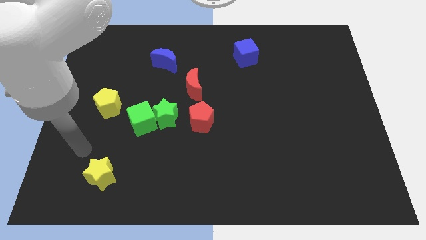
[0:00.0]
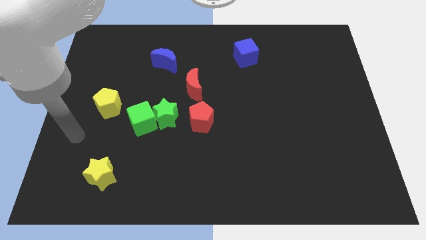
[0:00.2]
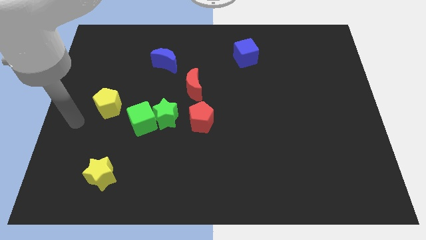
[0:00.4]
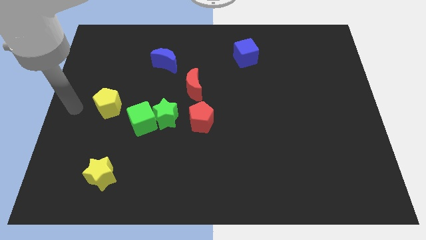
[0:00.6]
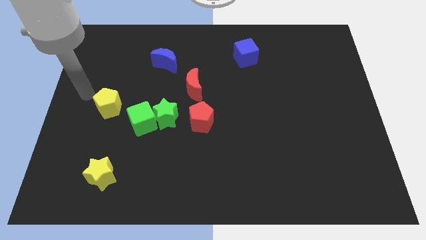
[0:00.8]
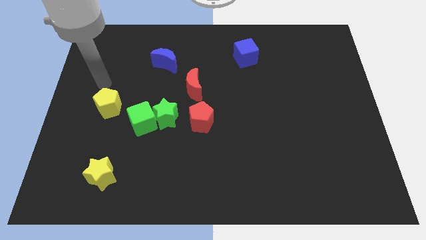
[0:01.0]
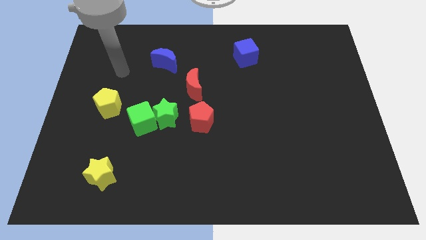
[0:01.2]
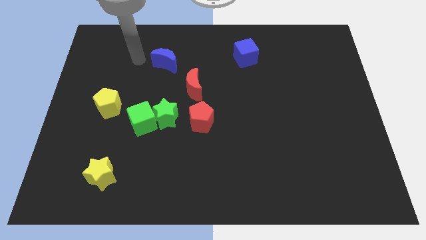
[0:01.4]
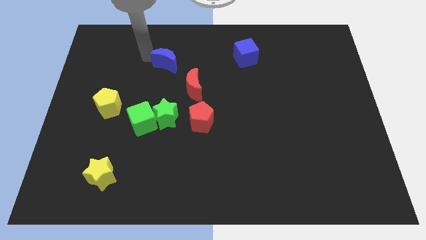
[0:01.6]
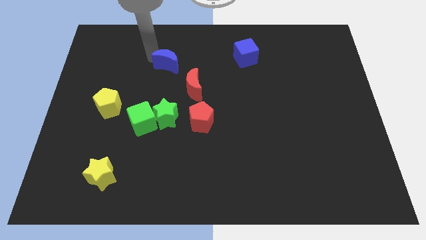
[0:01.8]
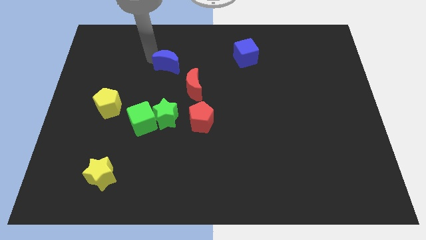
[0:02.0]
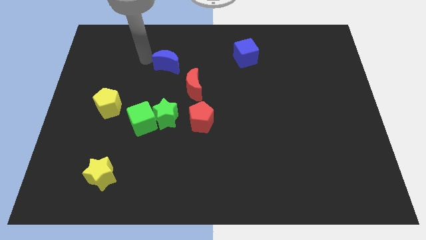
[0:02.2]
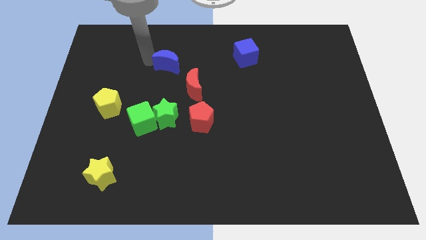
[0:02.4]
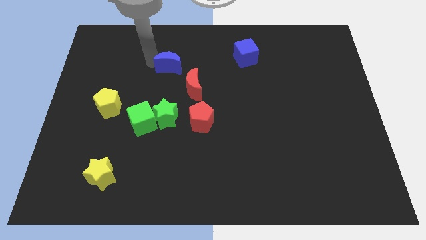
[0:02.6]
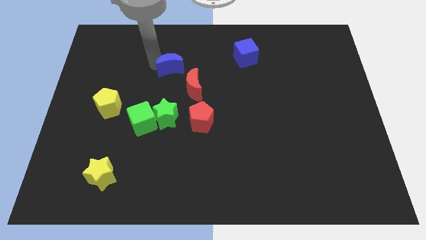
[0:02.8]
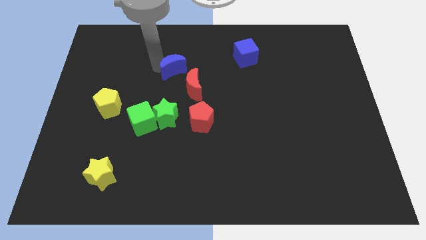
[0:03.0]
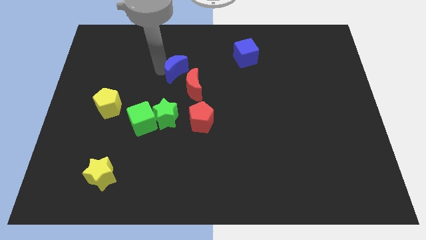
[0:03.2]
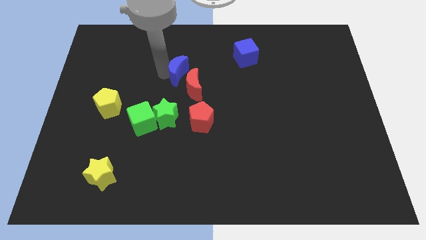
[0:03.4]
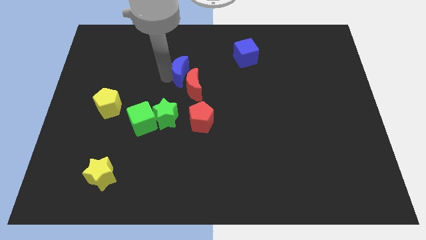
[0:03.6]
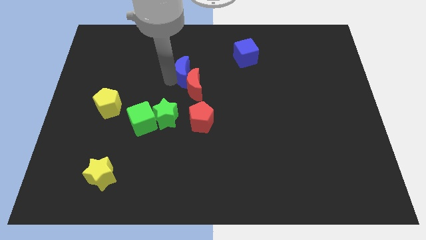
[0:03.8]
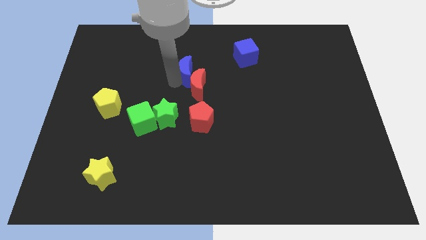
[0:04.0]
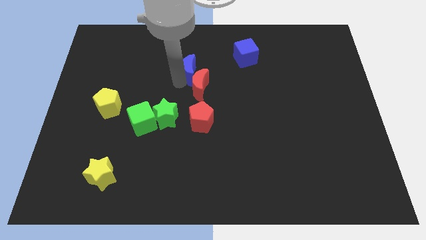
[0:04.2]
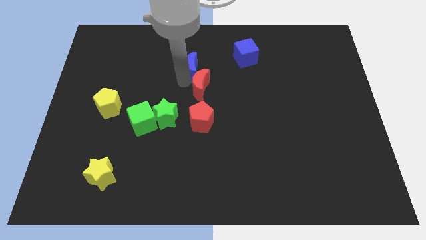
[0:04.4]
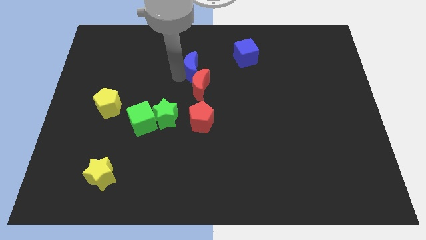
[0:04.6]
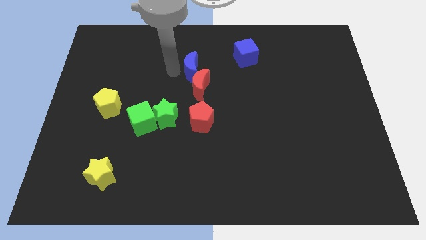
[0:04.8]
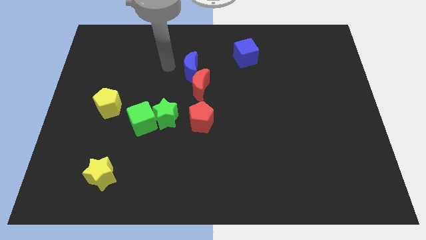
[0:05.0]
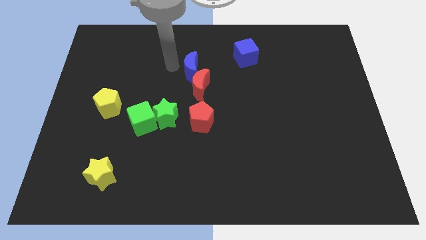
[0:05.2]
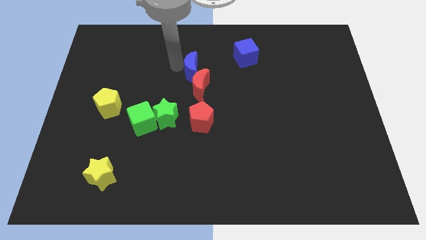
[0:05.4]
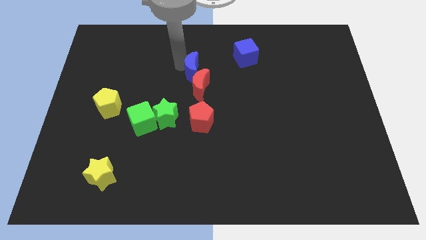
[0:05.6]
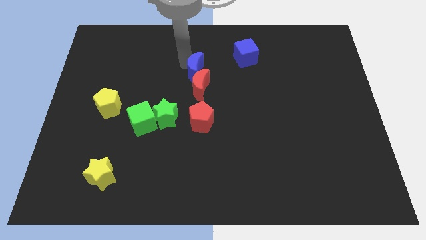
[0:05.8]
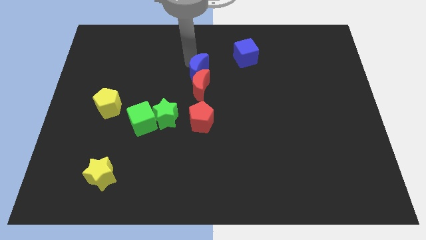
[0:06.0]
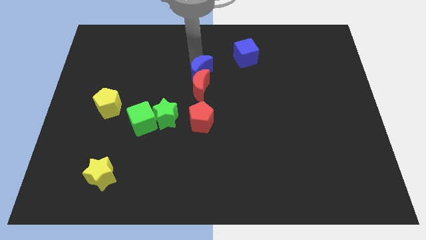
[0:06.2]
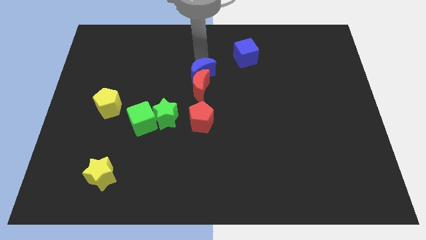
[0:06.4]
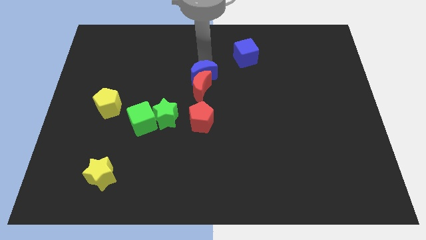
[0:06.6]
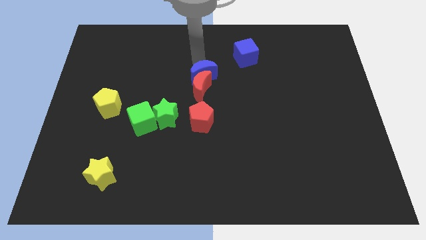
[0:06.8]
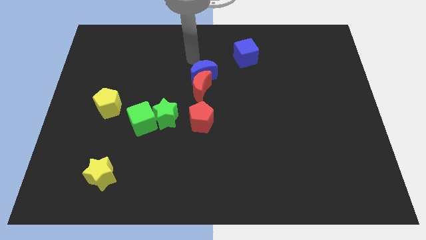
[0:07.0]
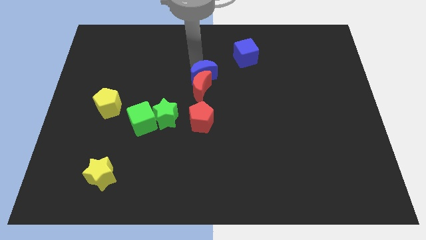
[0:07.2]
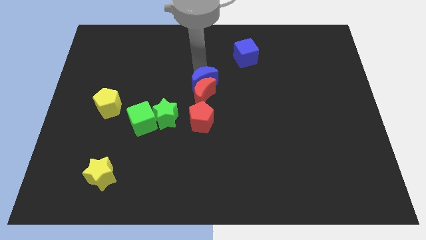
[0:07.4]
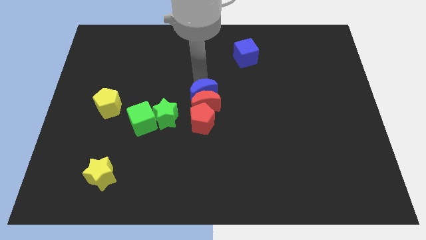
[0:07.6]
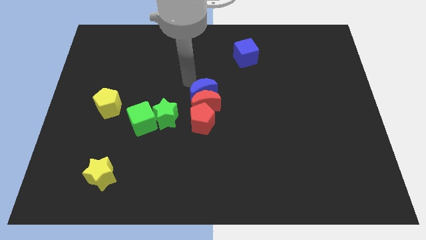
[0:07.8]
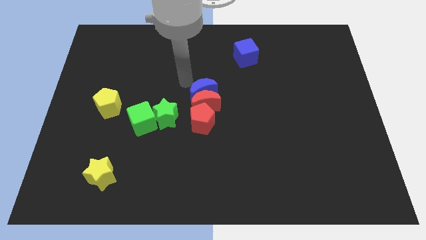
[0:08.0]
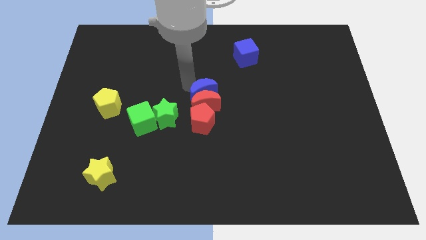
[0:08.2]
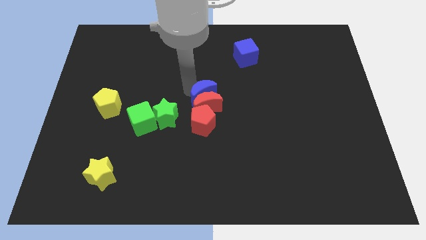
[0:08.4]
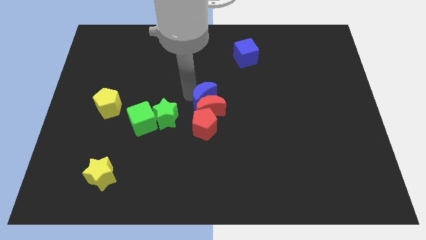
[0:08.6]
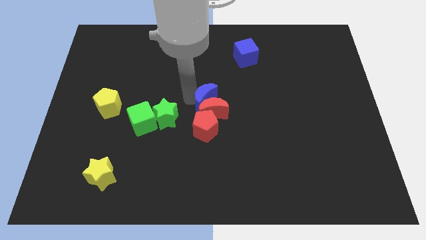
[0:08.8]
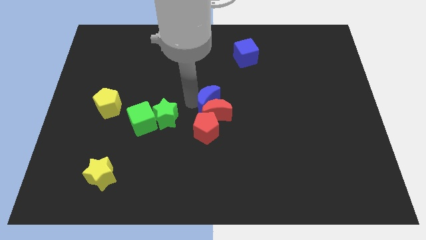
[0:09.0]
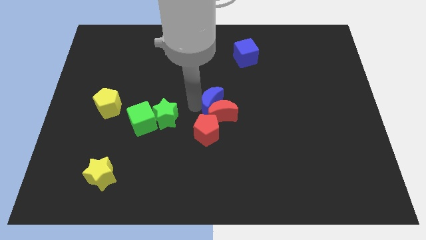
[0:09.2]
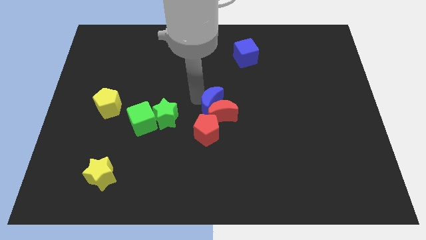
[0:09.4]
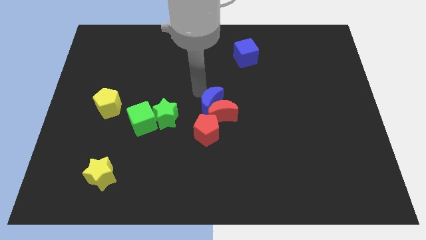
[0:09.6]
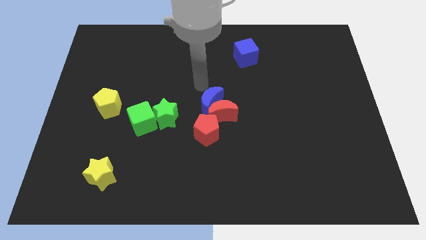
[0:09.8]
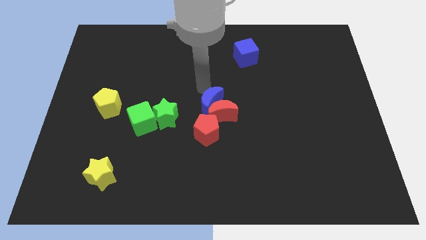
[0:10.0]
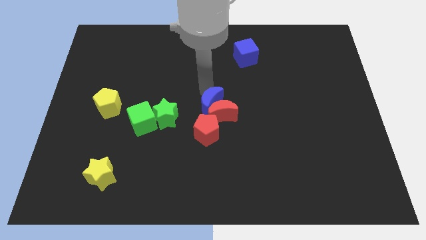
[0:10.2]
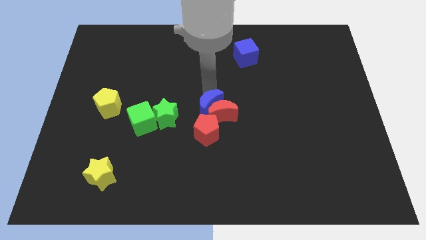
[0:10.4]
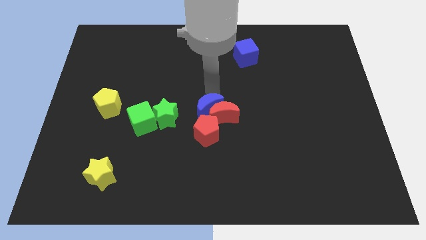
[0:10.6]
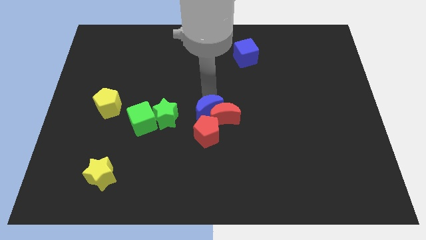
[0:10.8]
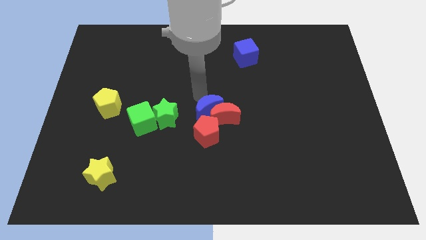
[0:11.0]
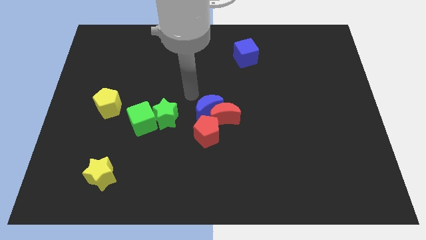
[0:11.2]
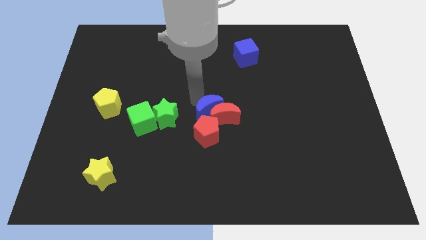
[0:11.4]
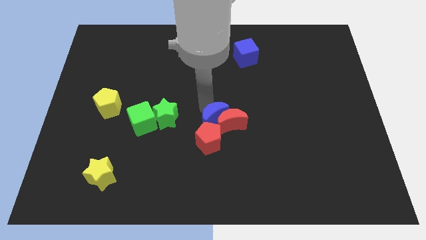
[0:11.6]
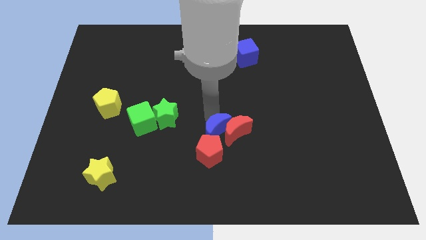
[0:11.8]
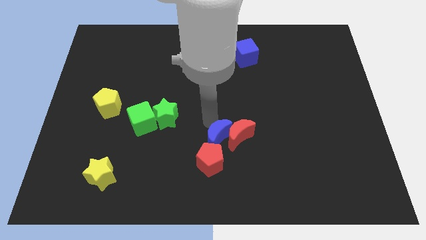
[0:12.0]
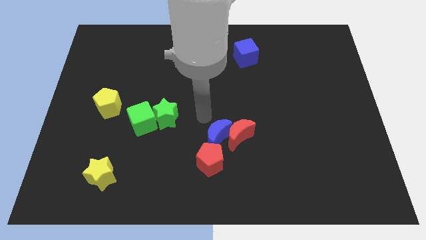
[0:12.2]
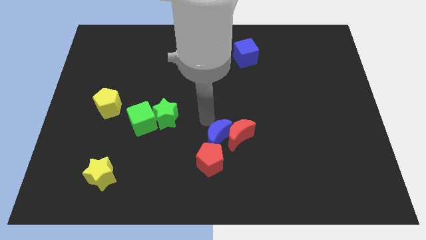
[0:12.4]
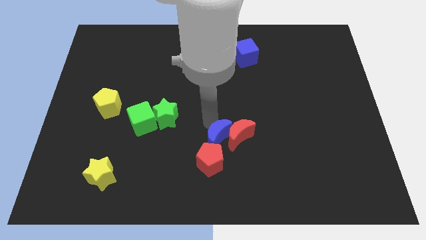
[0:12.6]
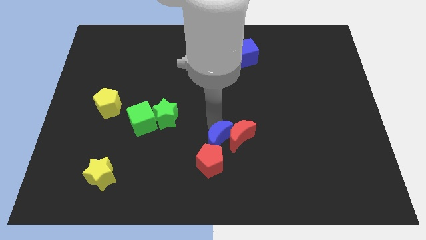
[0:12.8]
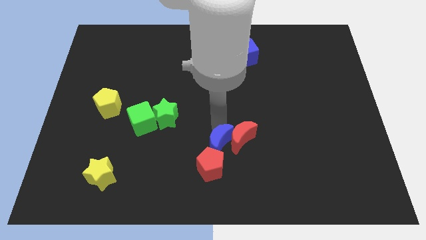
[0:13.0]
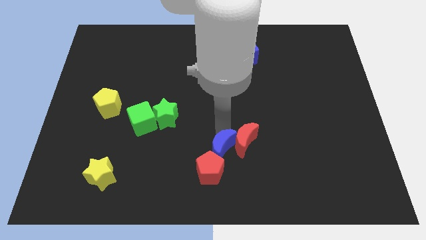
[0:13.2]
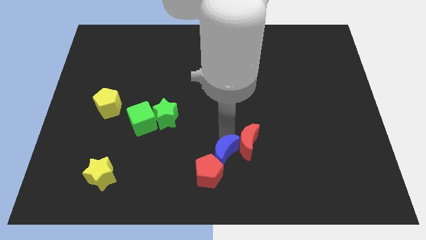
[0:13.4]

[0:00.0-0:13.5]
push the blue moon to the bottom
